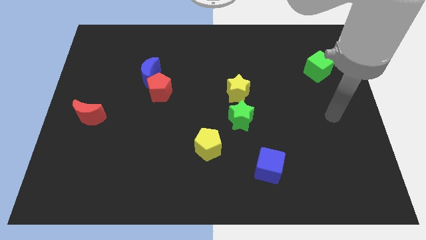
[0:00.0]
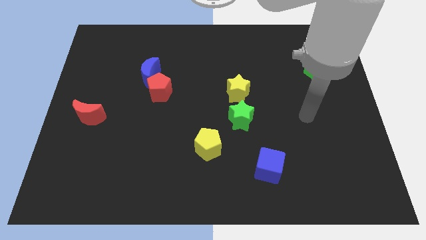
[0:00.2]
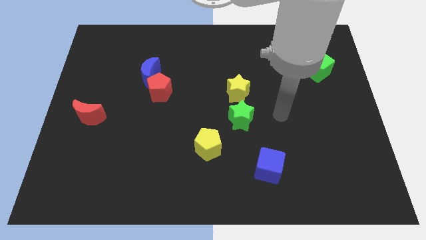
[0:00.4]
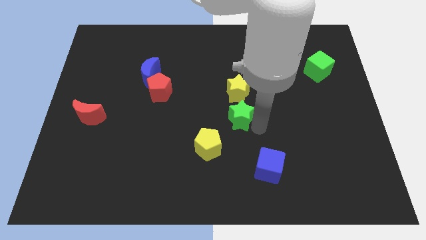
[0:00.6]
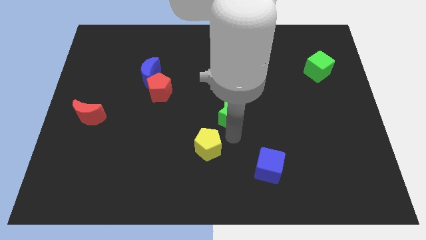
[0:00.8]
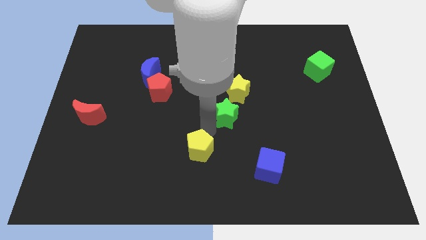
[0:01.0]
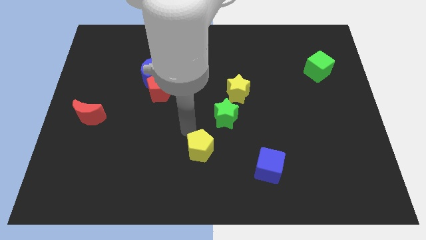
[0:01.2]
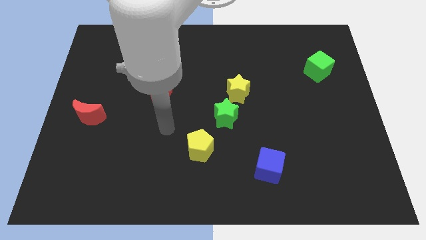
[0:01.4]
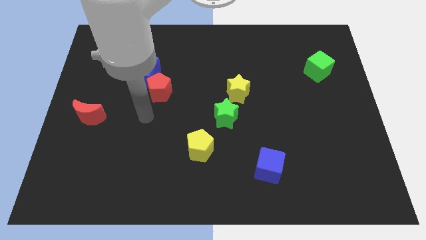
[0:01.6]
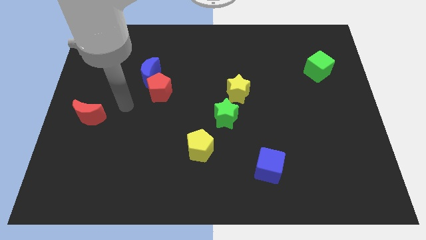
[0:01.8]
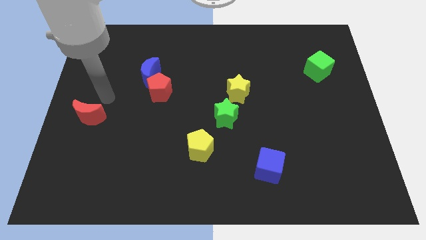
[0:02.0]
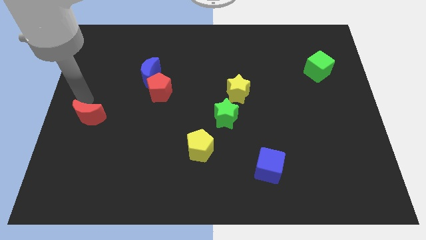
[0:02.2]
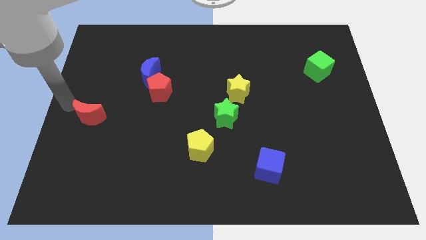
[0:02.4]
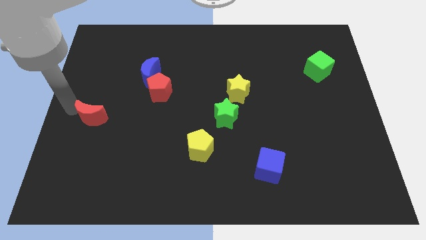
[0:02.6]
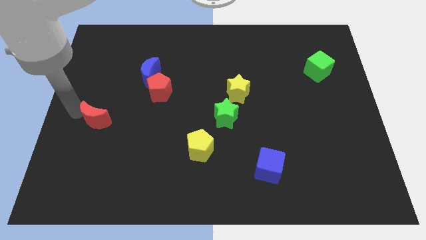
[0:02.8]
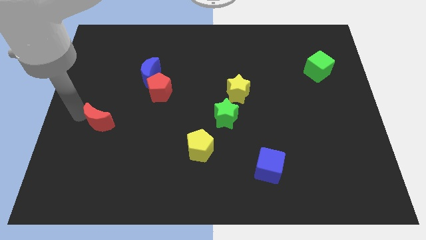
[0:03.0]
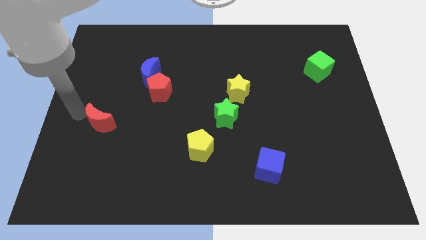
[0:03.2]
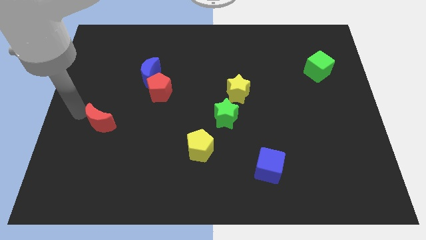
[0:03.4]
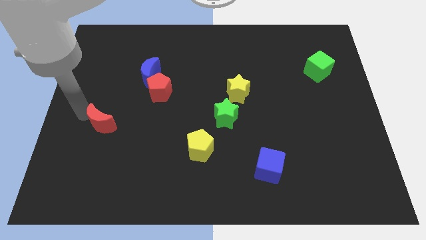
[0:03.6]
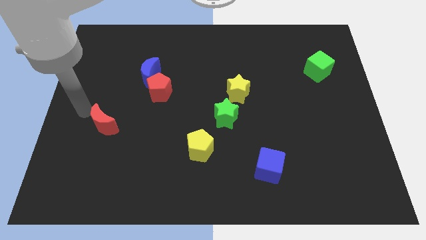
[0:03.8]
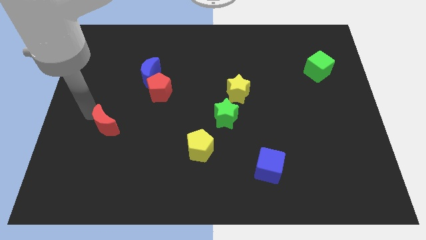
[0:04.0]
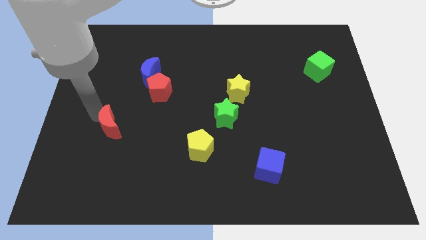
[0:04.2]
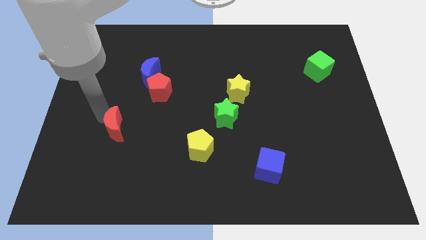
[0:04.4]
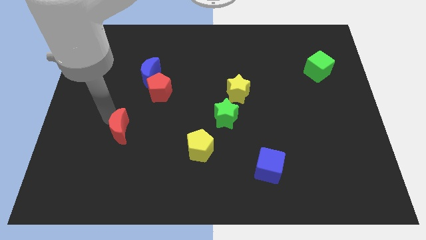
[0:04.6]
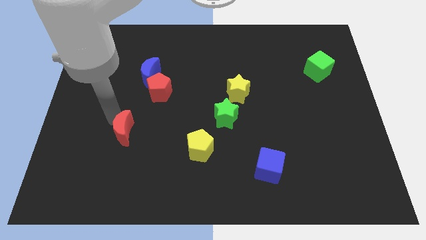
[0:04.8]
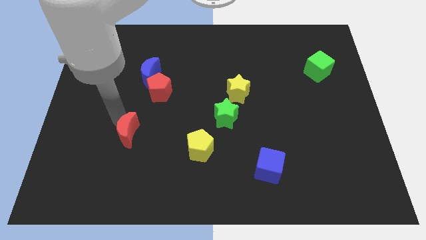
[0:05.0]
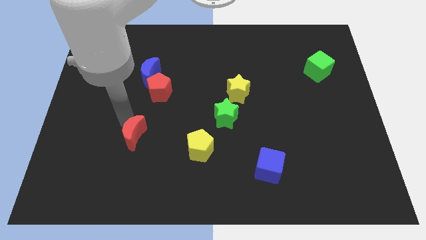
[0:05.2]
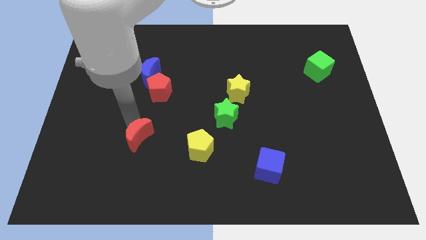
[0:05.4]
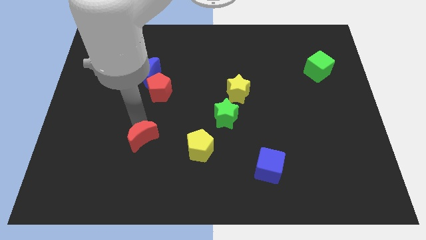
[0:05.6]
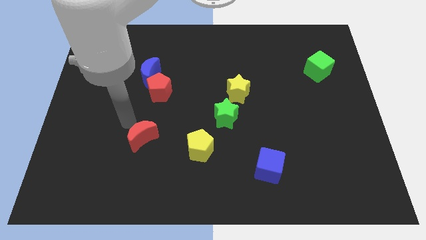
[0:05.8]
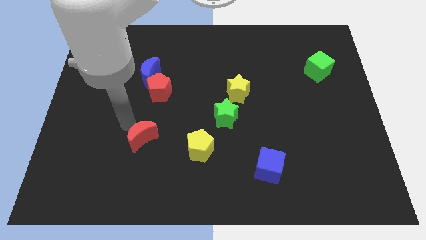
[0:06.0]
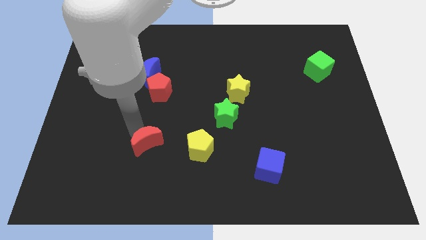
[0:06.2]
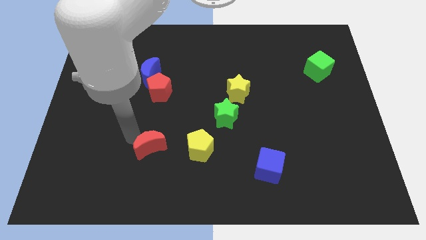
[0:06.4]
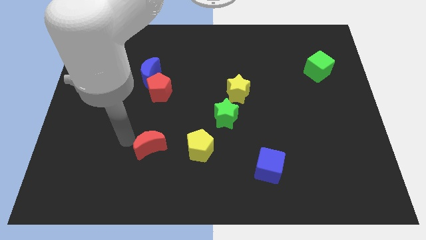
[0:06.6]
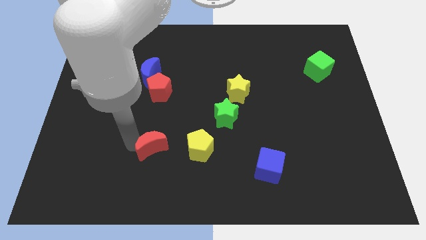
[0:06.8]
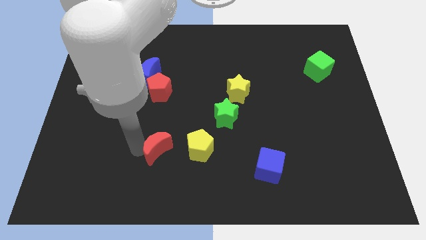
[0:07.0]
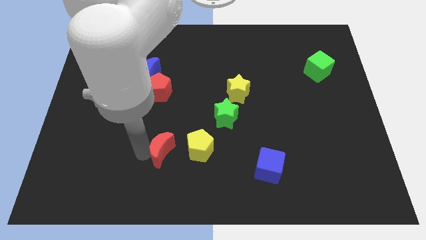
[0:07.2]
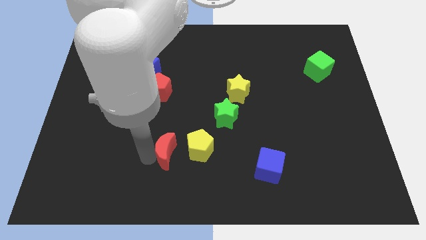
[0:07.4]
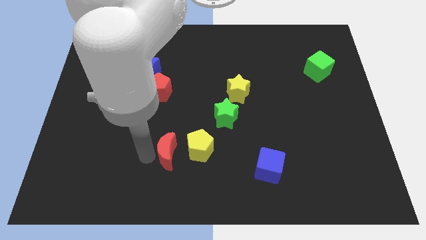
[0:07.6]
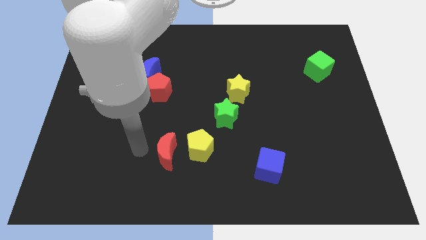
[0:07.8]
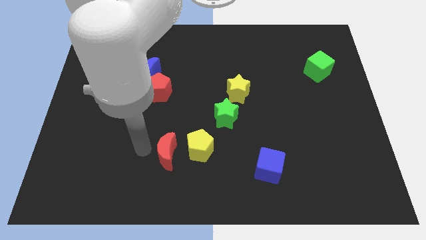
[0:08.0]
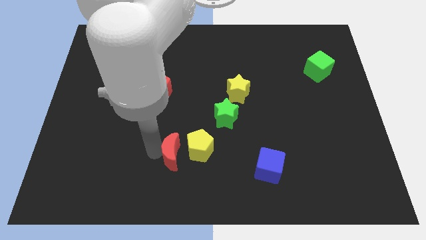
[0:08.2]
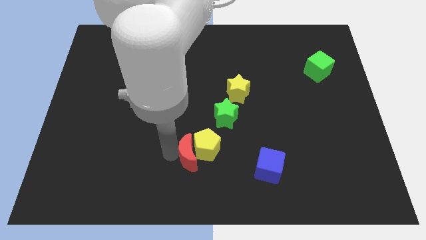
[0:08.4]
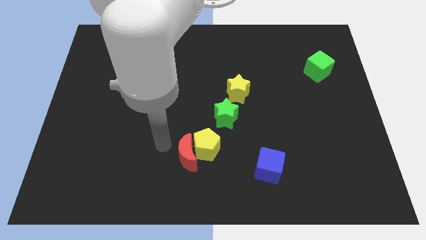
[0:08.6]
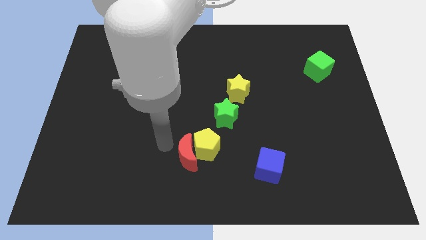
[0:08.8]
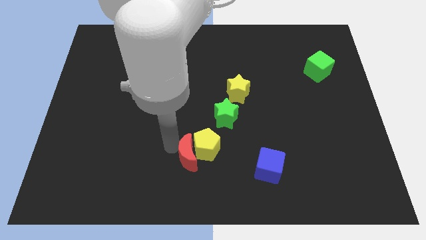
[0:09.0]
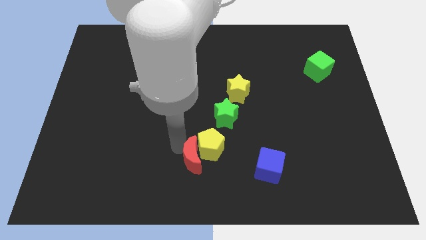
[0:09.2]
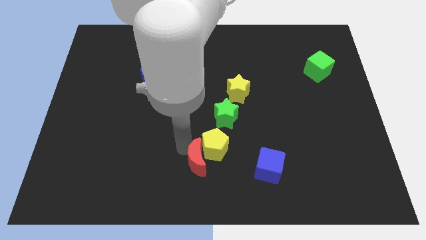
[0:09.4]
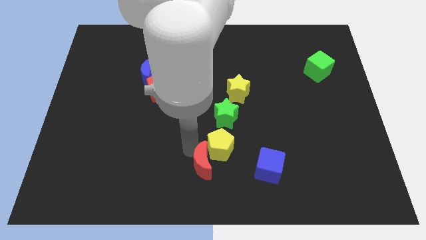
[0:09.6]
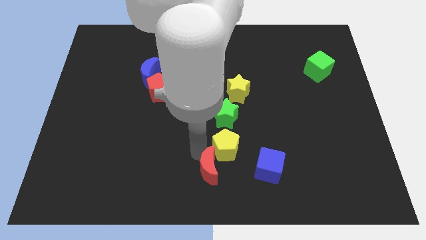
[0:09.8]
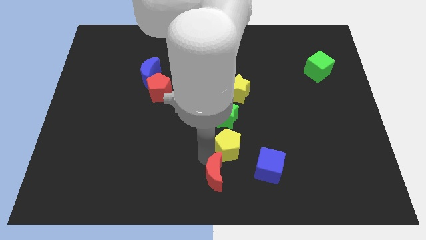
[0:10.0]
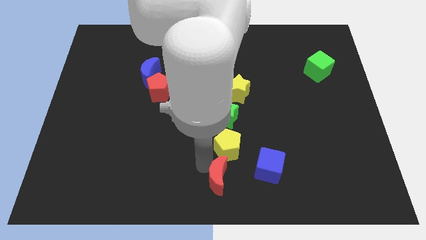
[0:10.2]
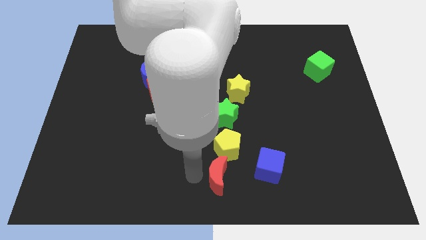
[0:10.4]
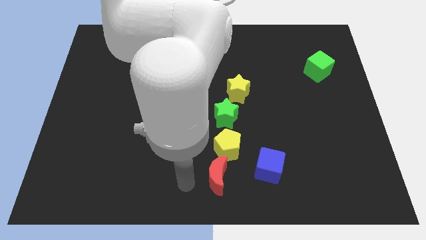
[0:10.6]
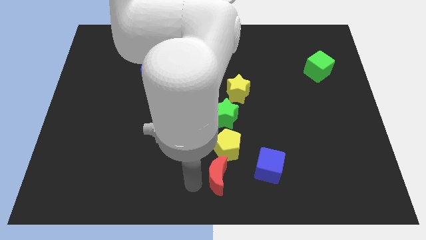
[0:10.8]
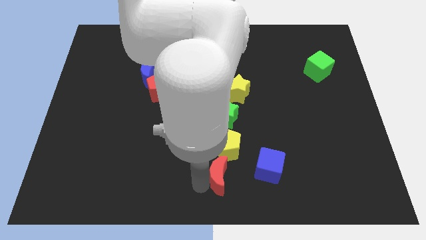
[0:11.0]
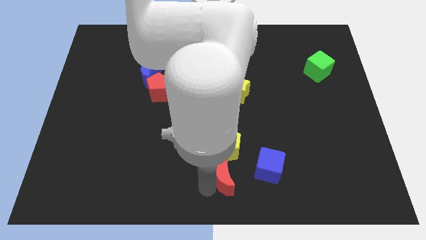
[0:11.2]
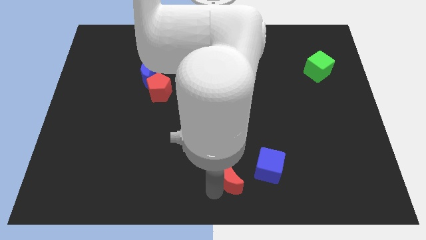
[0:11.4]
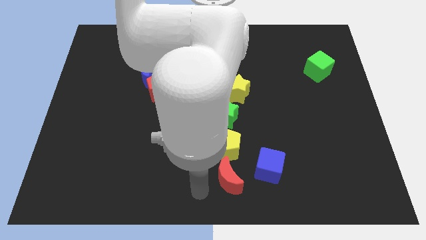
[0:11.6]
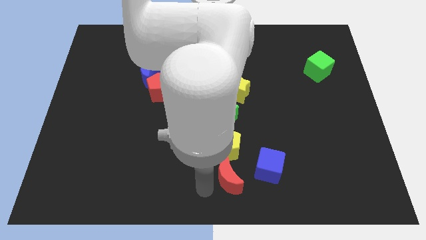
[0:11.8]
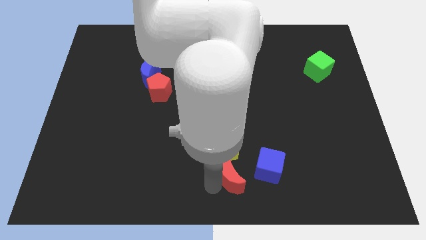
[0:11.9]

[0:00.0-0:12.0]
push the red moon to the bottom right side of the yellow pentagon
